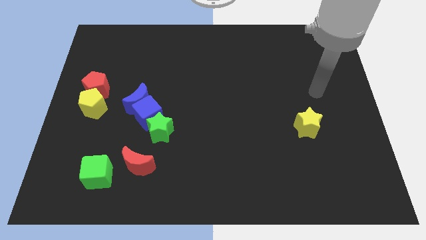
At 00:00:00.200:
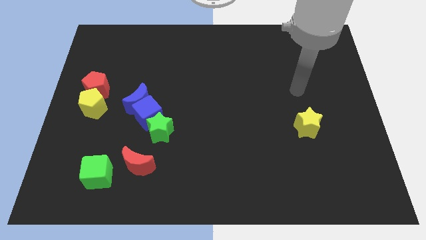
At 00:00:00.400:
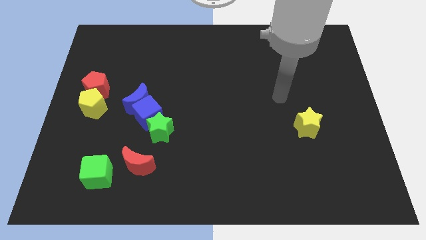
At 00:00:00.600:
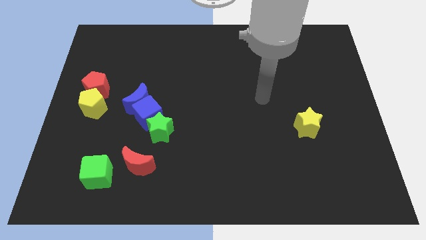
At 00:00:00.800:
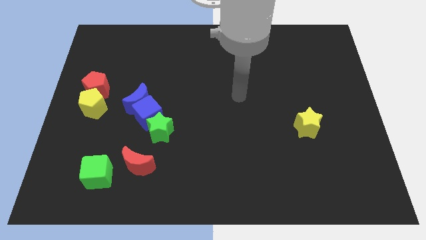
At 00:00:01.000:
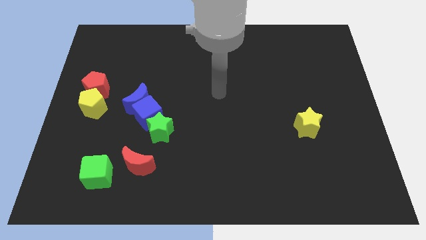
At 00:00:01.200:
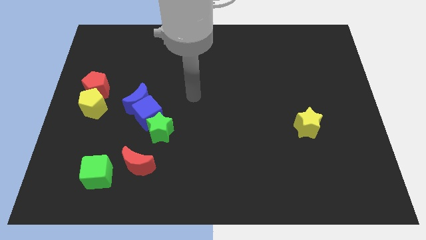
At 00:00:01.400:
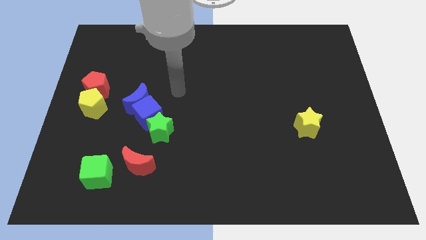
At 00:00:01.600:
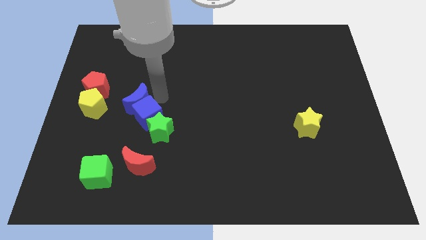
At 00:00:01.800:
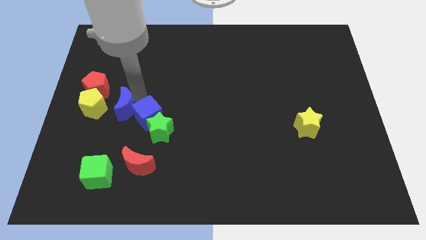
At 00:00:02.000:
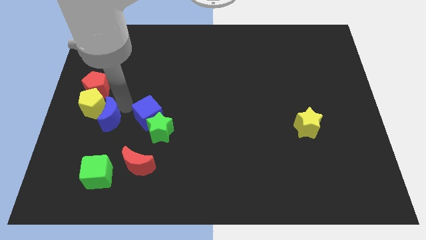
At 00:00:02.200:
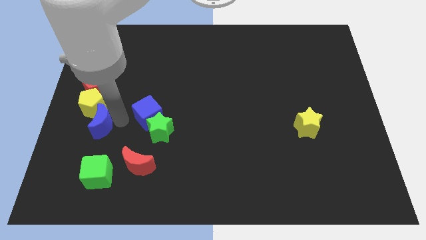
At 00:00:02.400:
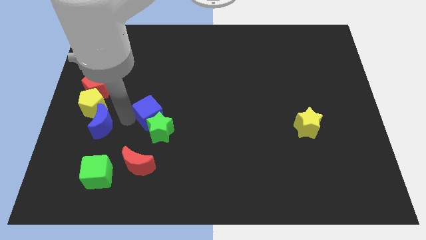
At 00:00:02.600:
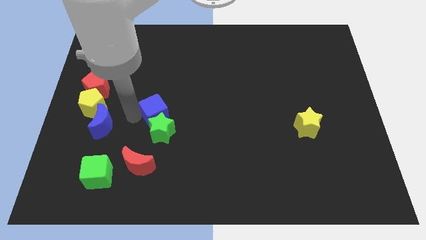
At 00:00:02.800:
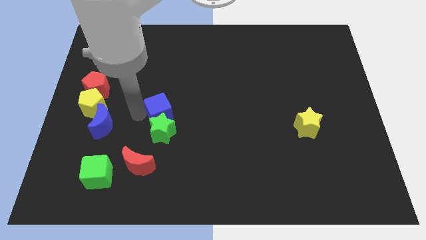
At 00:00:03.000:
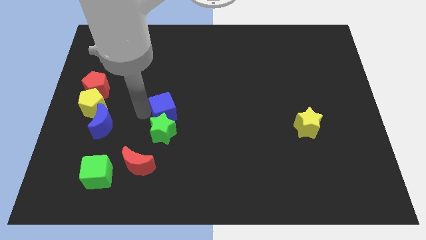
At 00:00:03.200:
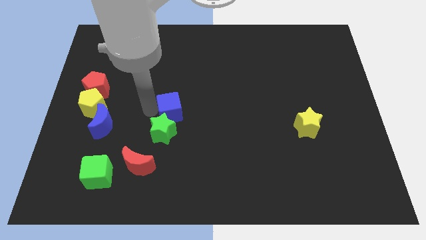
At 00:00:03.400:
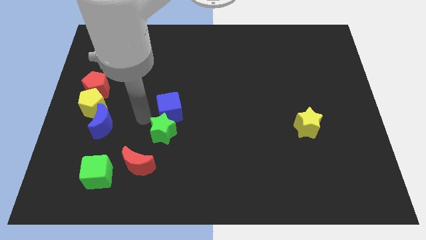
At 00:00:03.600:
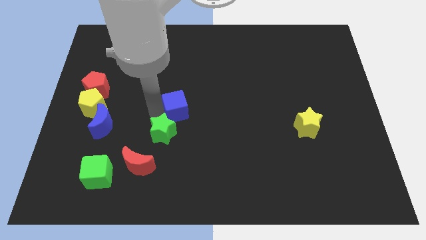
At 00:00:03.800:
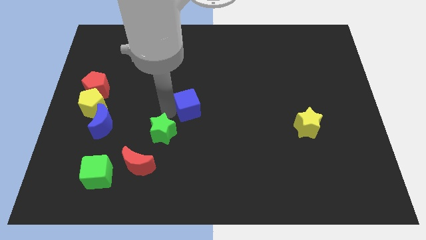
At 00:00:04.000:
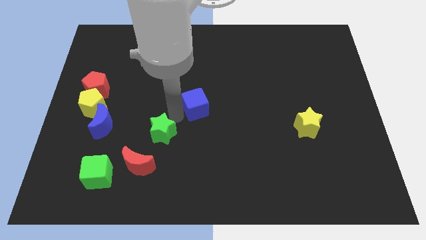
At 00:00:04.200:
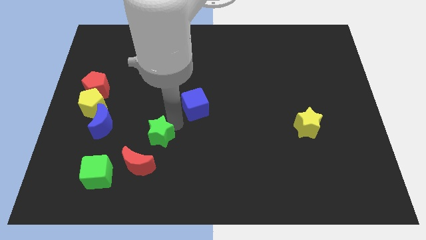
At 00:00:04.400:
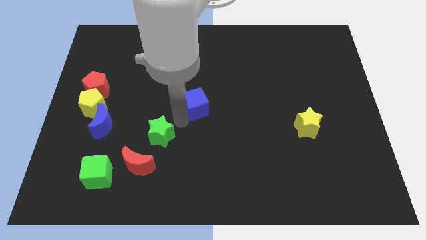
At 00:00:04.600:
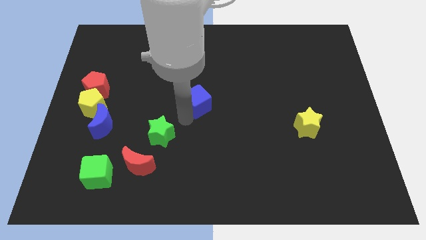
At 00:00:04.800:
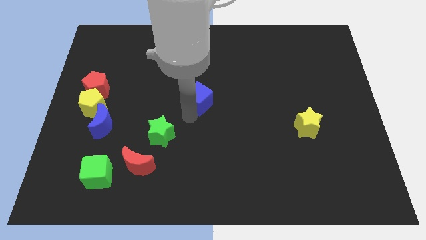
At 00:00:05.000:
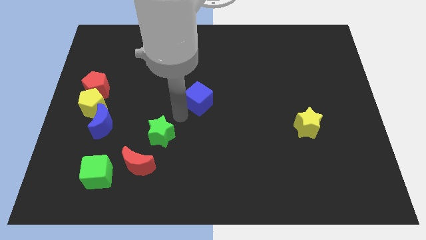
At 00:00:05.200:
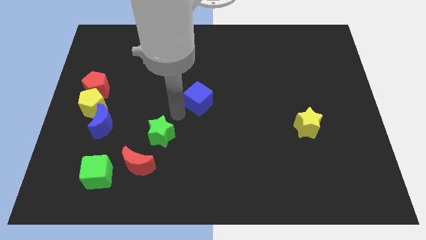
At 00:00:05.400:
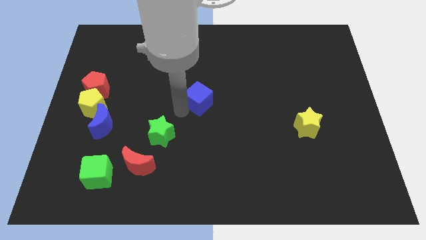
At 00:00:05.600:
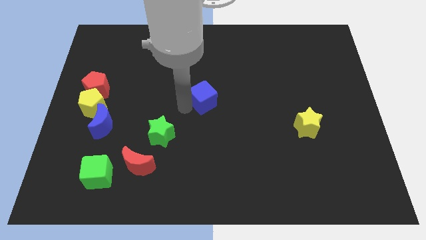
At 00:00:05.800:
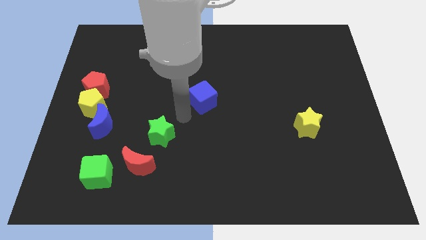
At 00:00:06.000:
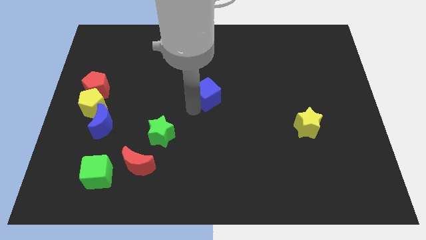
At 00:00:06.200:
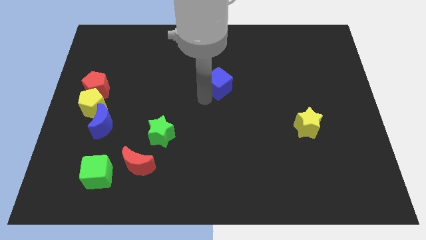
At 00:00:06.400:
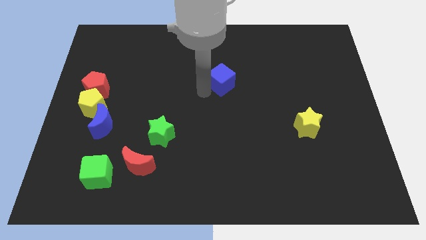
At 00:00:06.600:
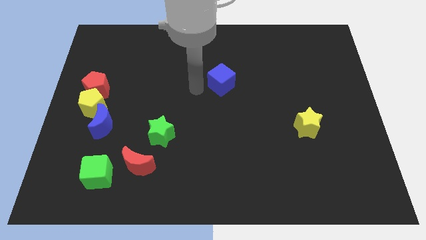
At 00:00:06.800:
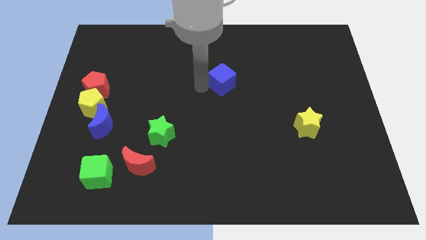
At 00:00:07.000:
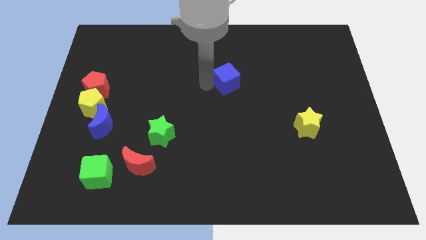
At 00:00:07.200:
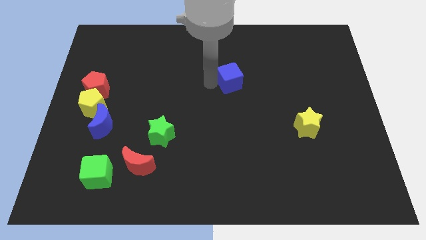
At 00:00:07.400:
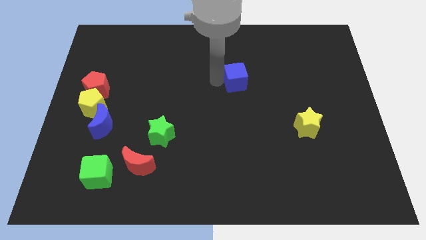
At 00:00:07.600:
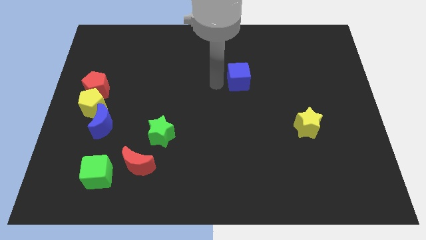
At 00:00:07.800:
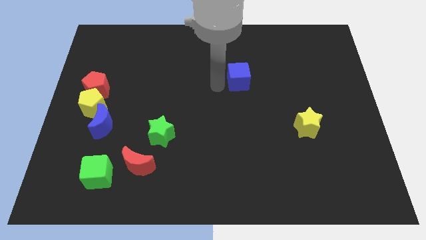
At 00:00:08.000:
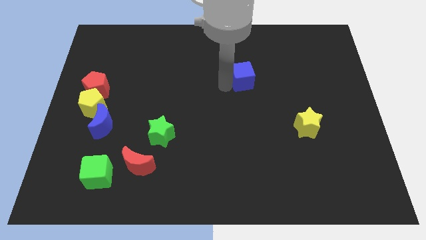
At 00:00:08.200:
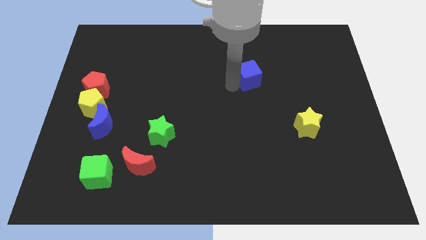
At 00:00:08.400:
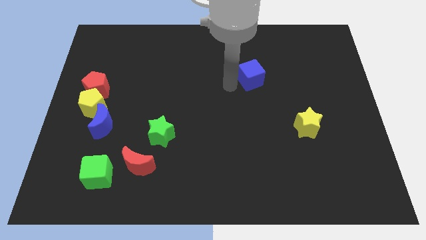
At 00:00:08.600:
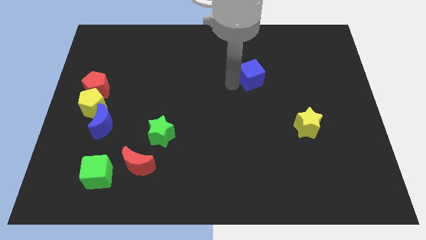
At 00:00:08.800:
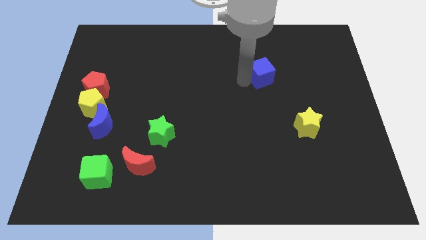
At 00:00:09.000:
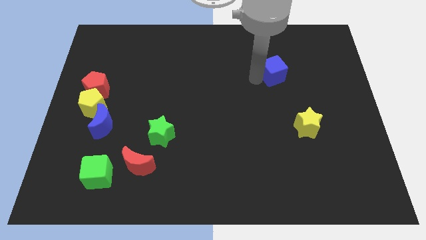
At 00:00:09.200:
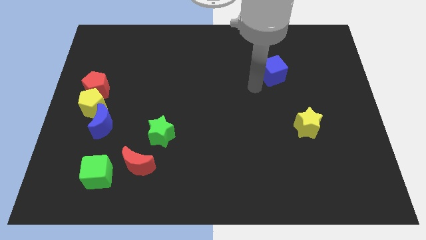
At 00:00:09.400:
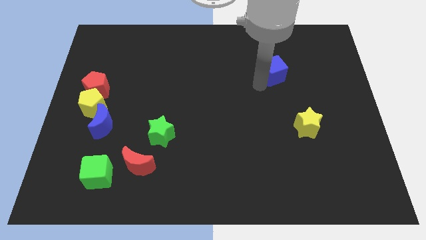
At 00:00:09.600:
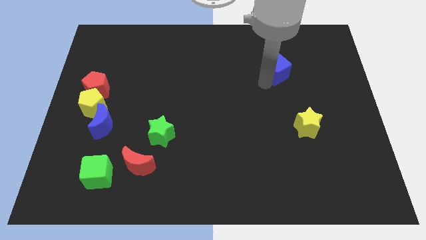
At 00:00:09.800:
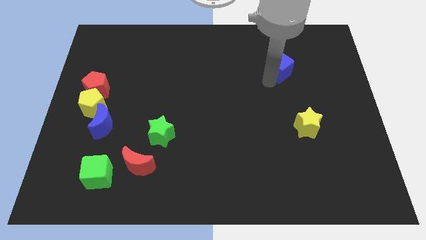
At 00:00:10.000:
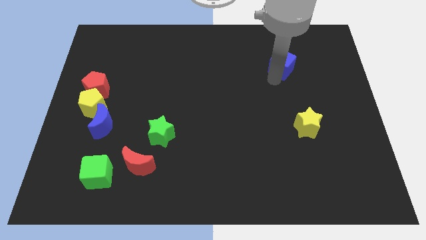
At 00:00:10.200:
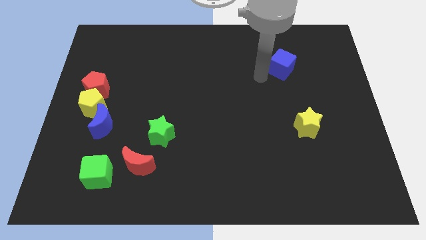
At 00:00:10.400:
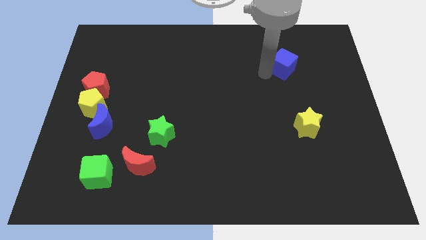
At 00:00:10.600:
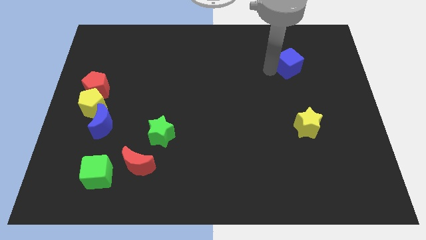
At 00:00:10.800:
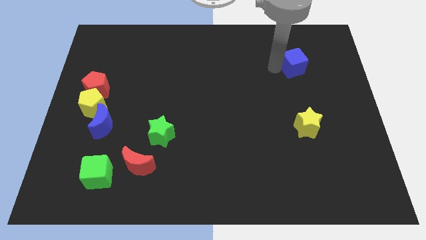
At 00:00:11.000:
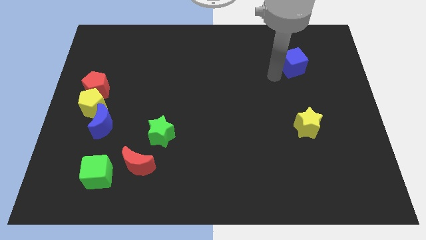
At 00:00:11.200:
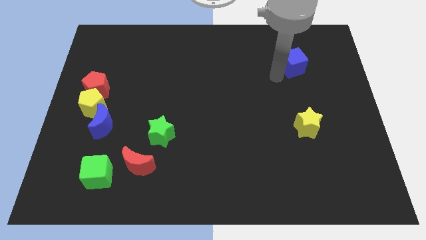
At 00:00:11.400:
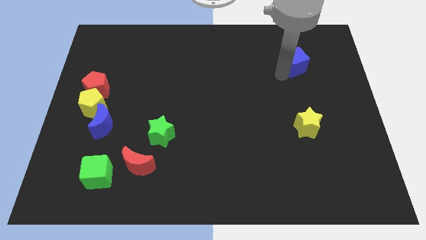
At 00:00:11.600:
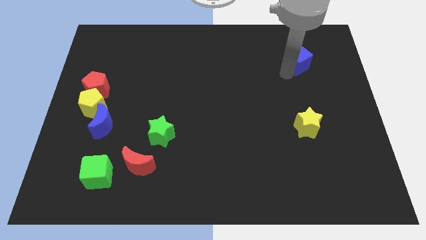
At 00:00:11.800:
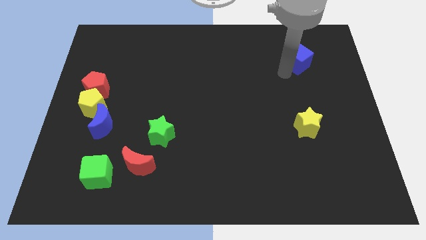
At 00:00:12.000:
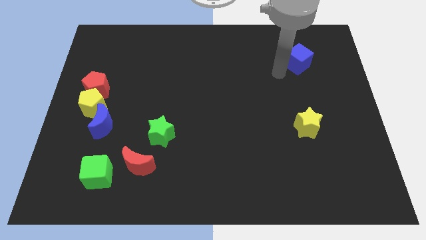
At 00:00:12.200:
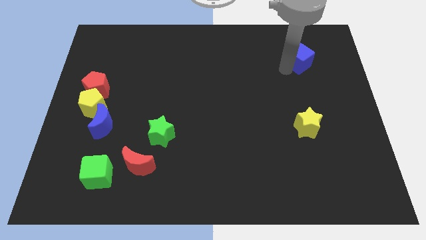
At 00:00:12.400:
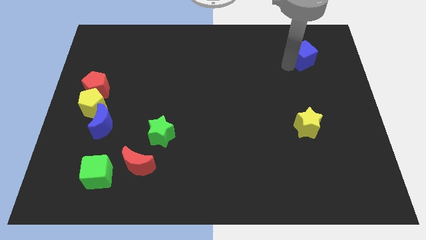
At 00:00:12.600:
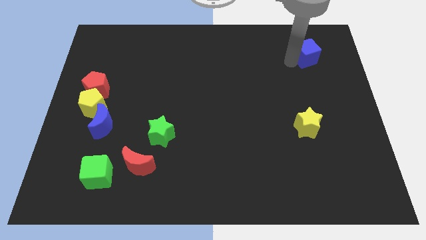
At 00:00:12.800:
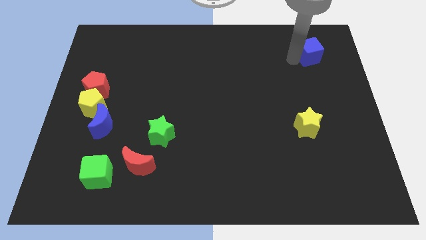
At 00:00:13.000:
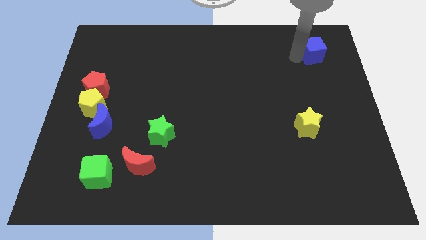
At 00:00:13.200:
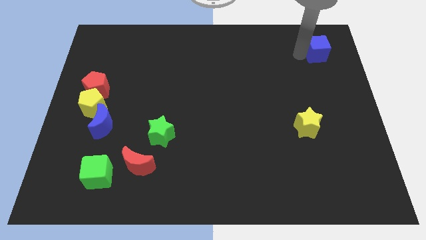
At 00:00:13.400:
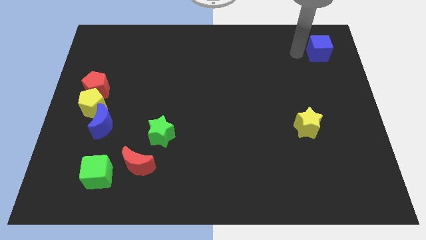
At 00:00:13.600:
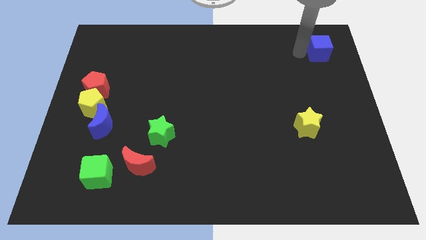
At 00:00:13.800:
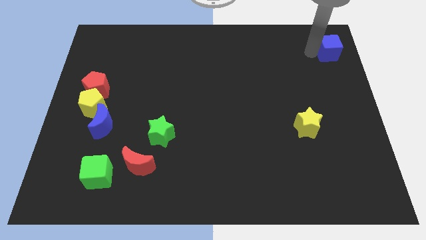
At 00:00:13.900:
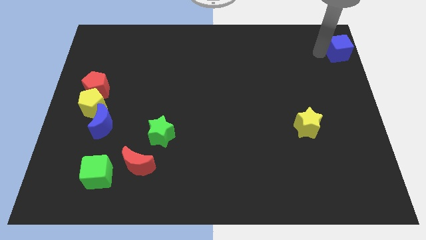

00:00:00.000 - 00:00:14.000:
slide the blue cube to the top right corner
